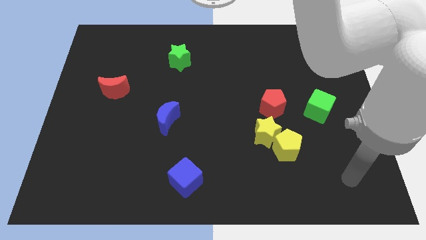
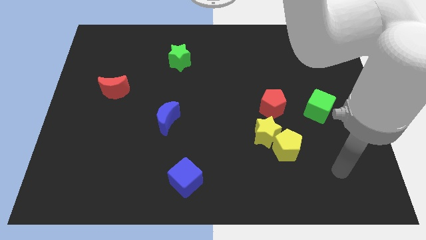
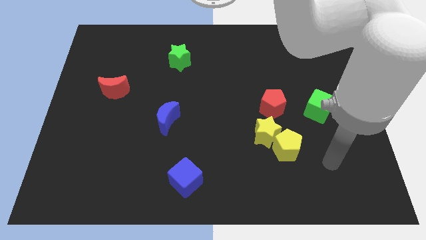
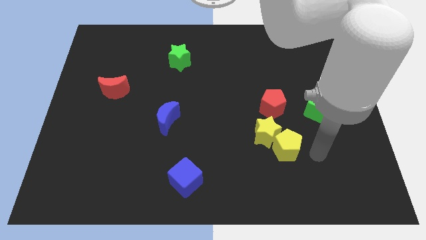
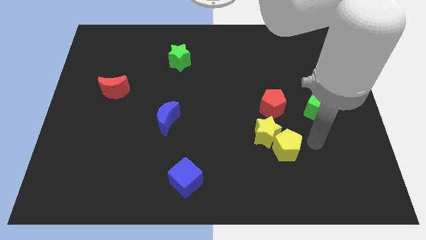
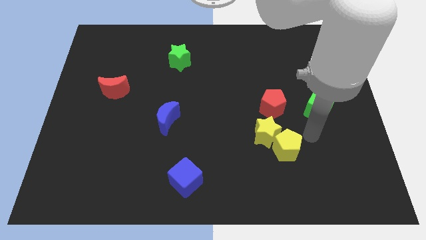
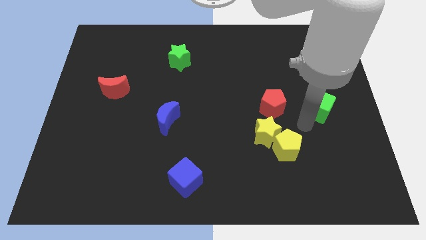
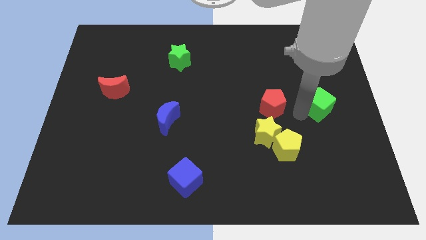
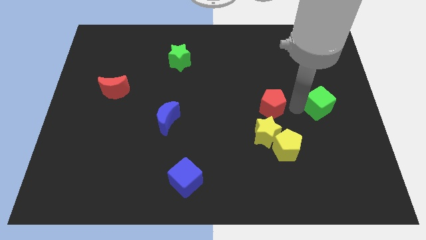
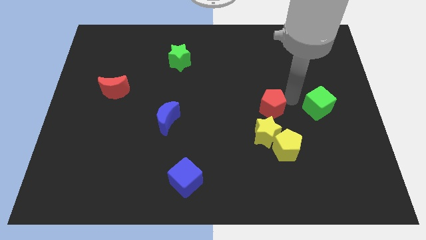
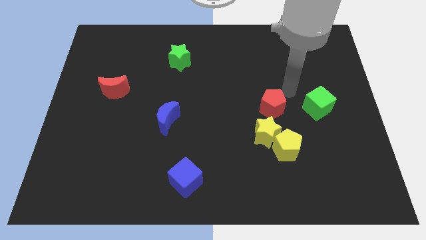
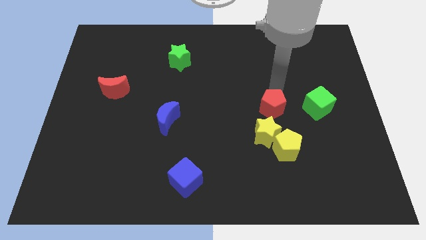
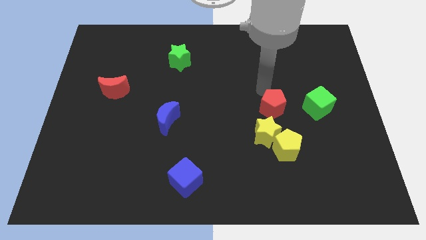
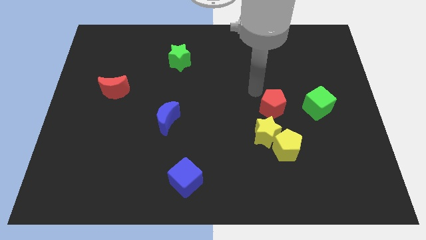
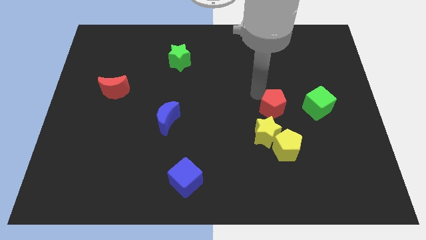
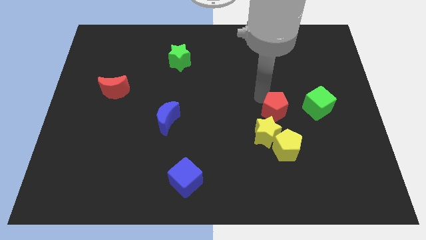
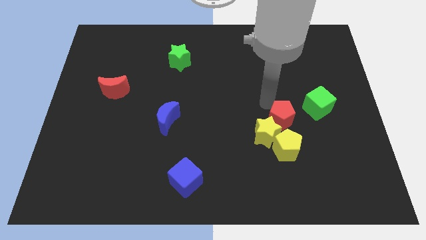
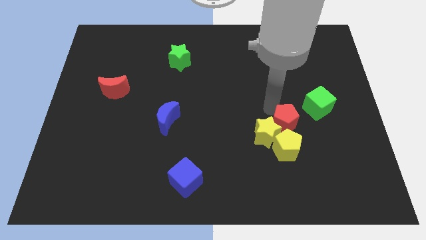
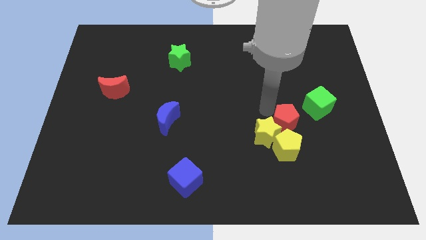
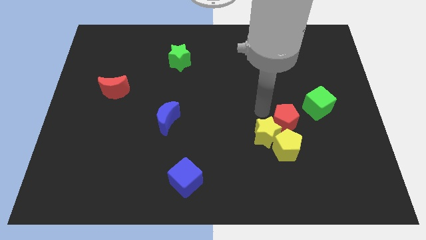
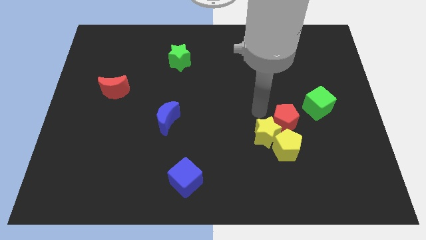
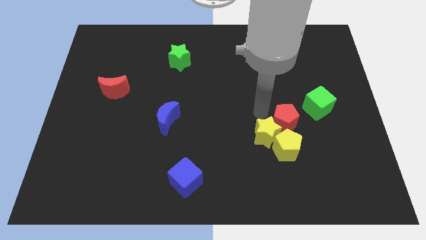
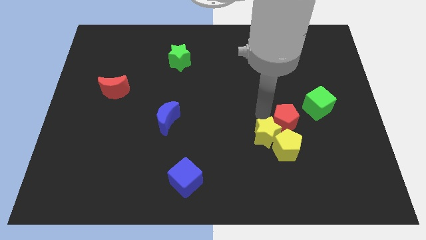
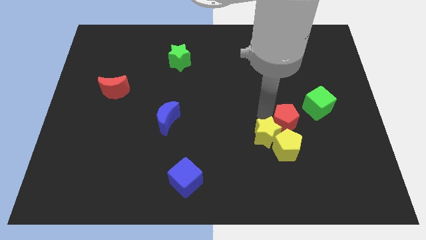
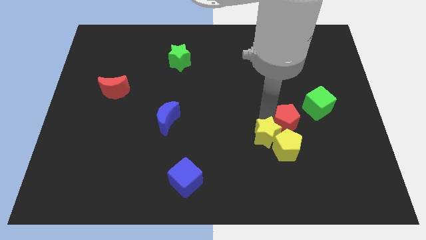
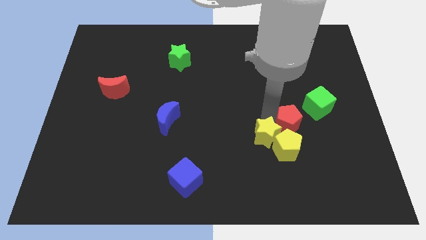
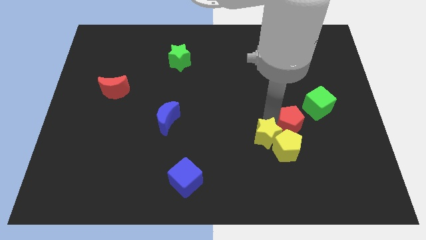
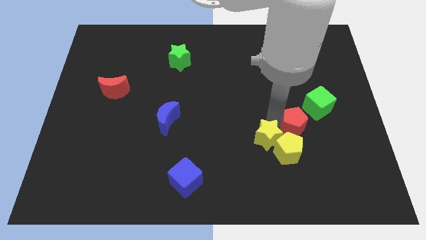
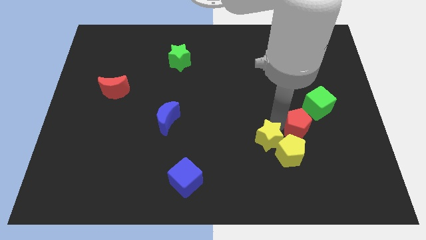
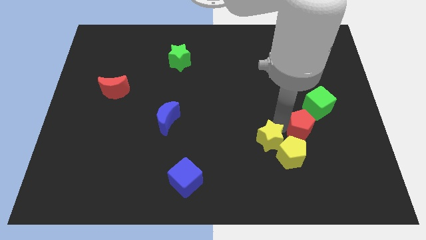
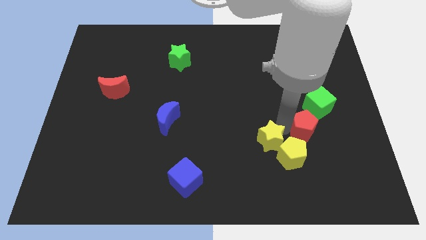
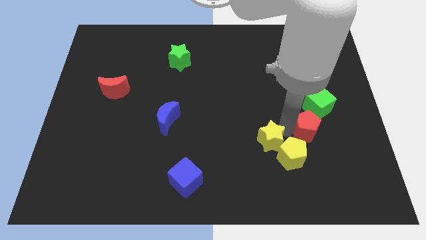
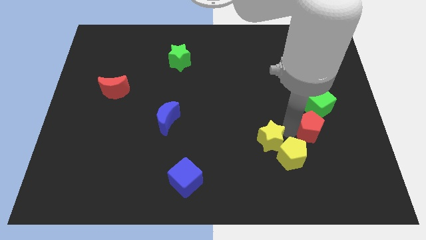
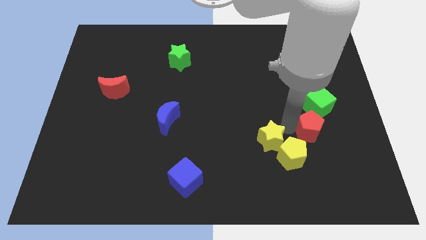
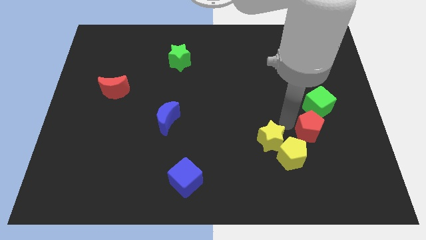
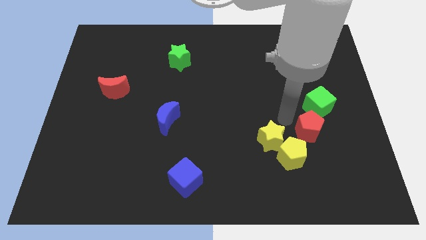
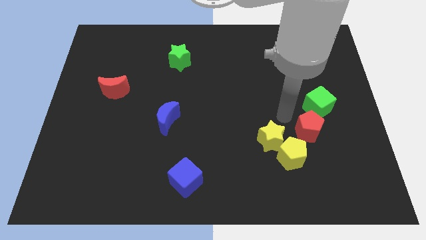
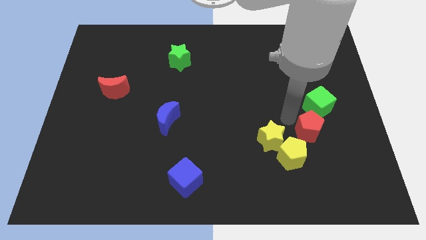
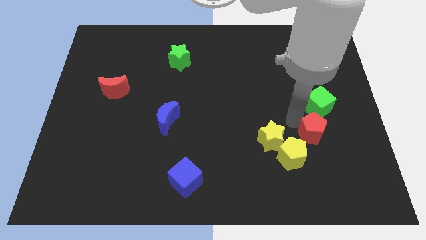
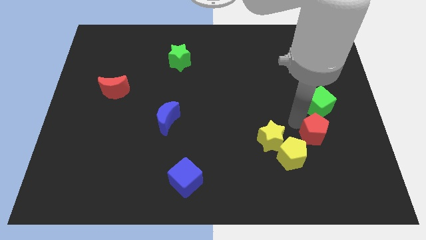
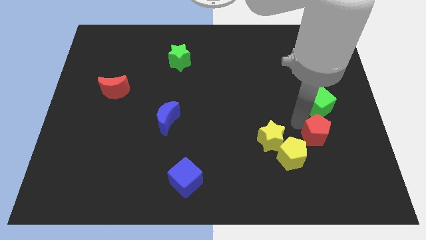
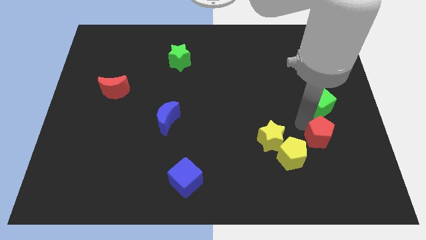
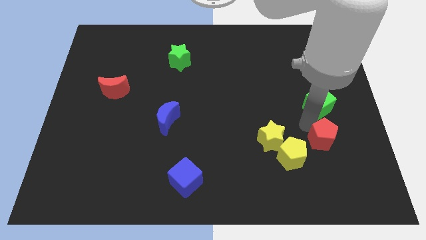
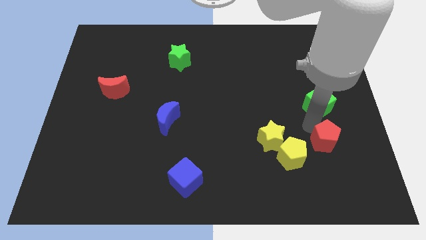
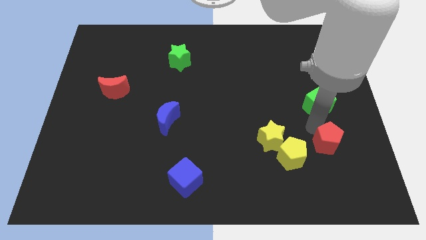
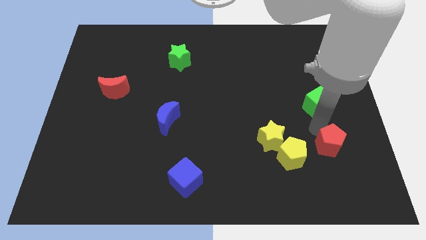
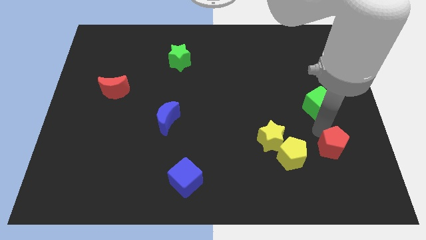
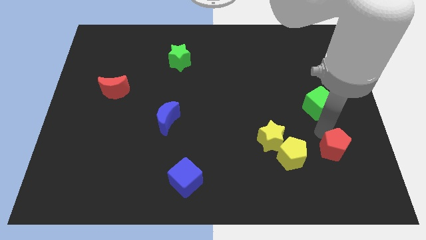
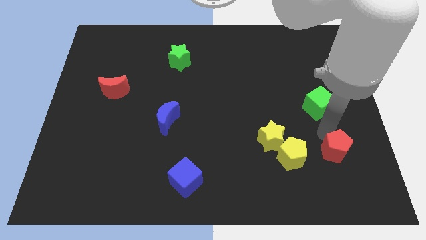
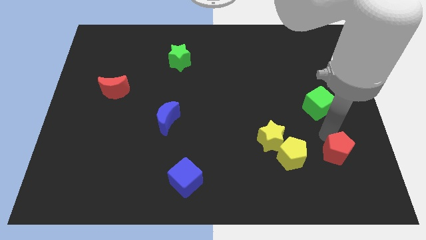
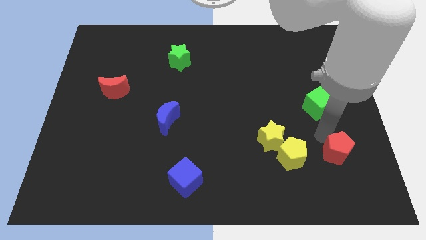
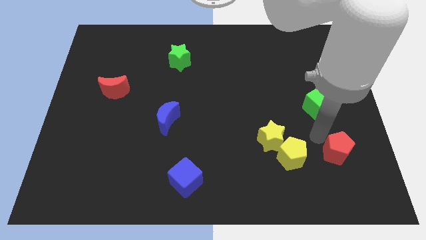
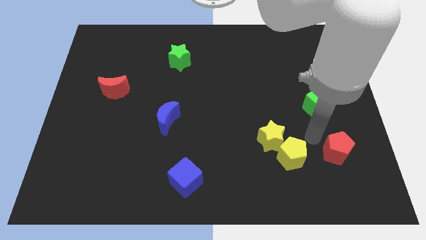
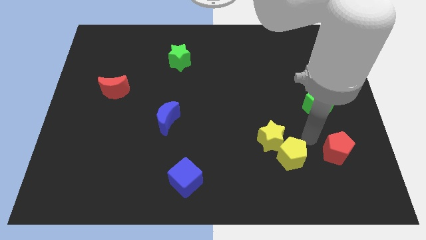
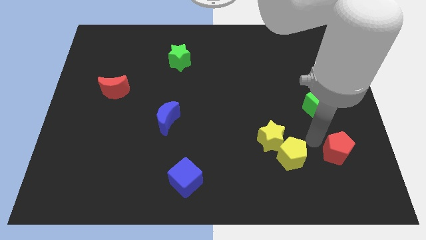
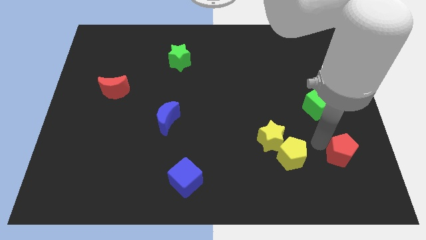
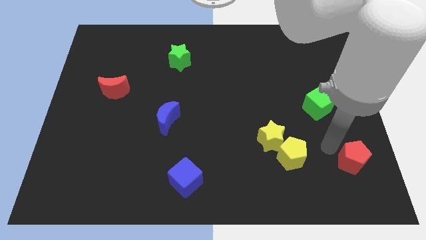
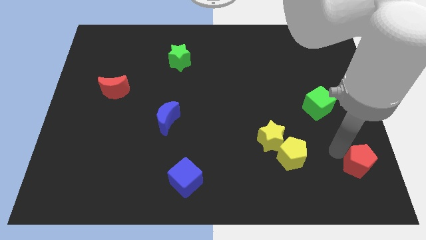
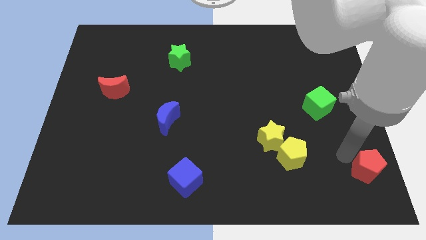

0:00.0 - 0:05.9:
put the red pentagon to the bottom right corner
